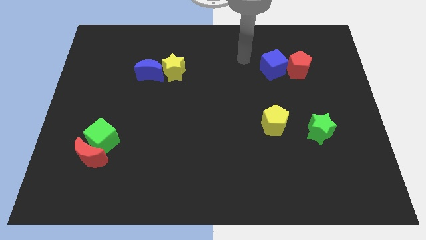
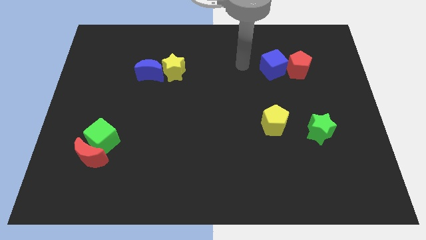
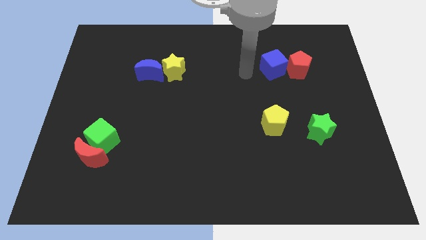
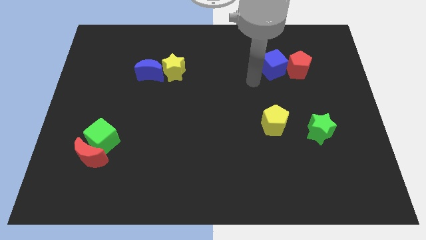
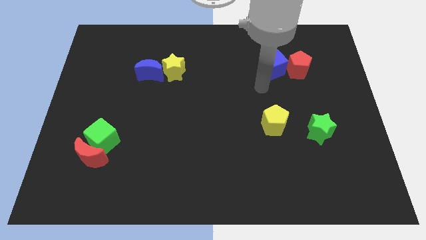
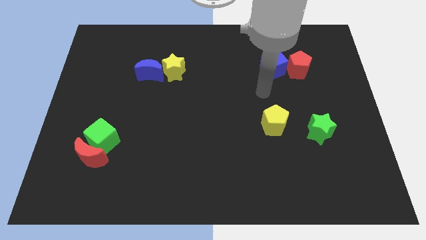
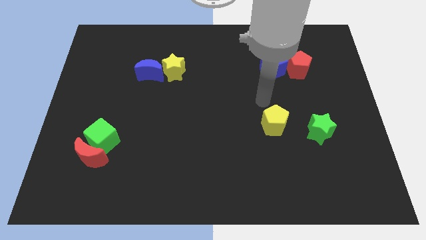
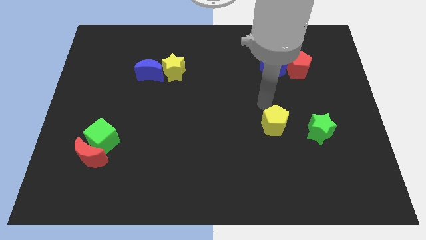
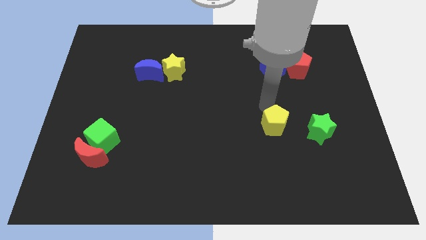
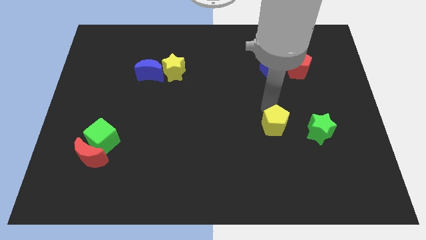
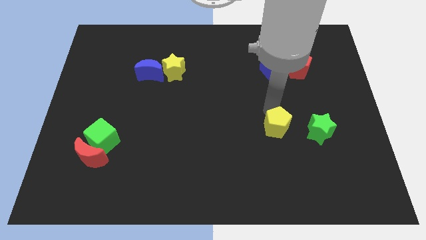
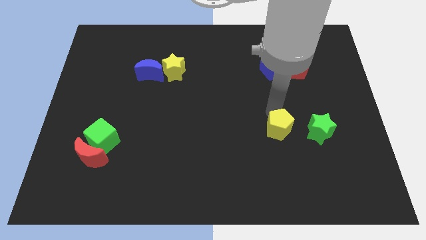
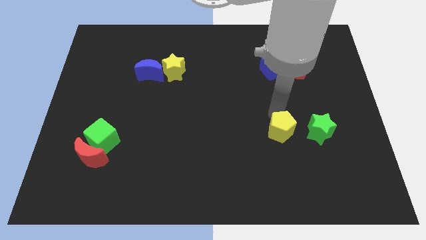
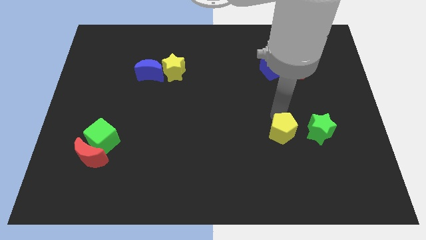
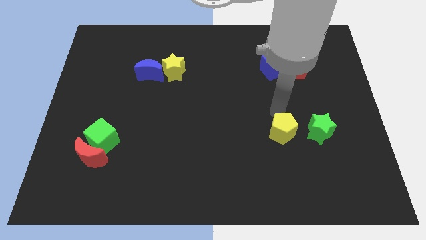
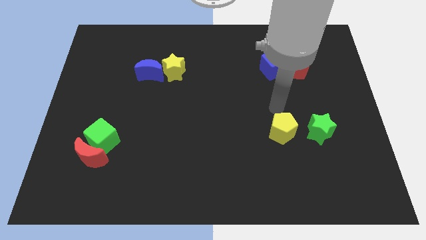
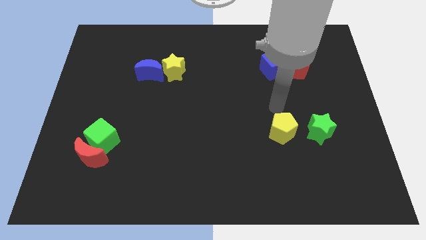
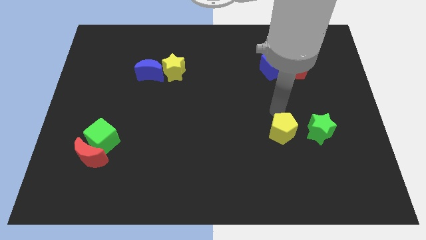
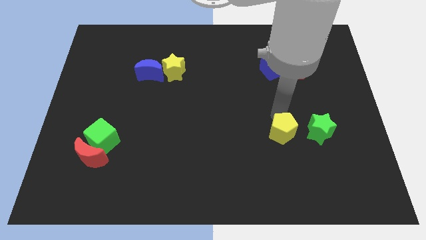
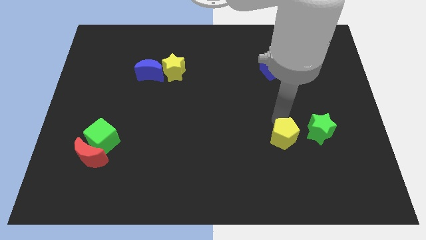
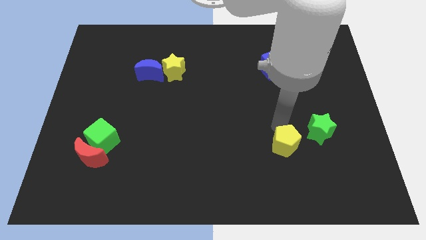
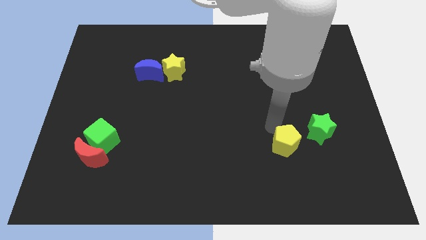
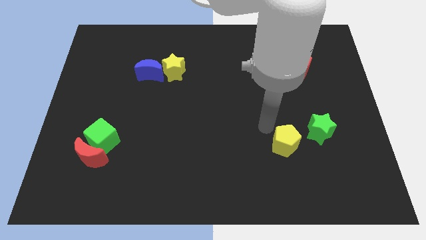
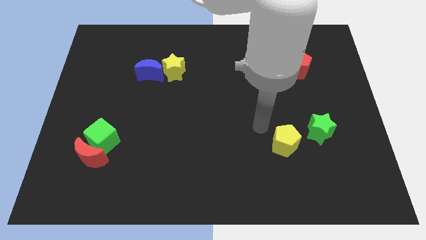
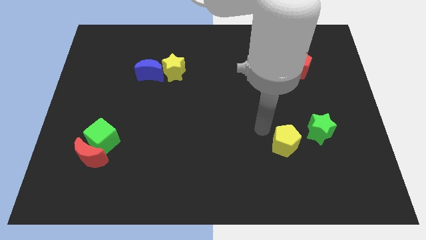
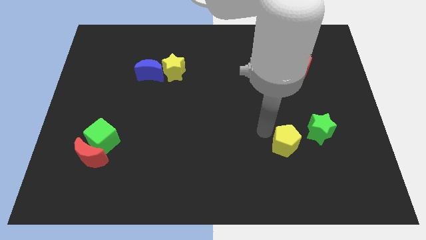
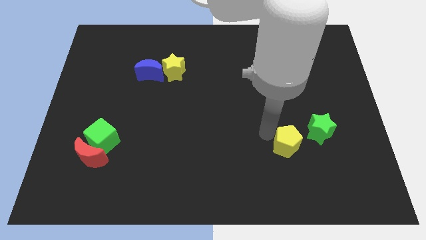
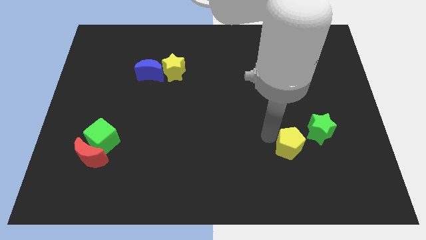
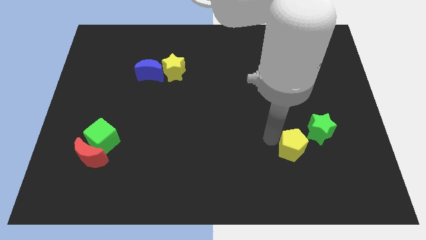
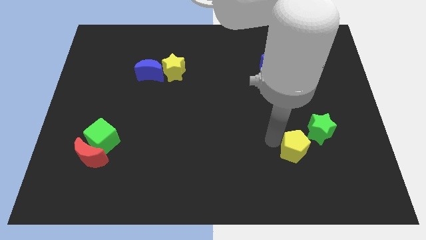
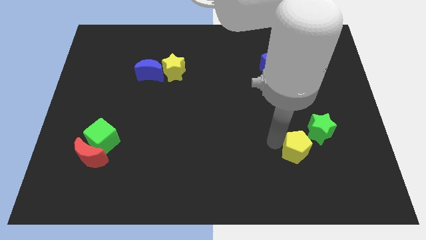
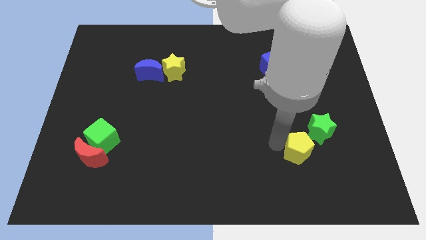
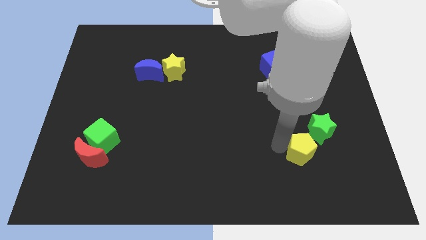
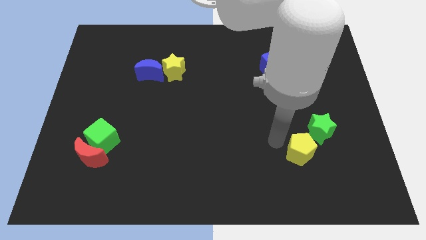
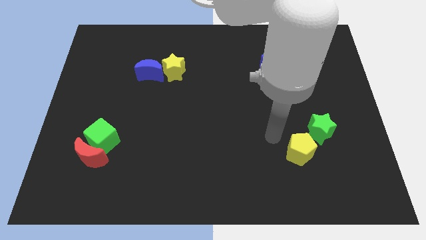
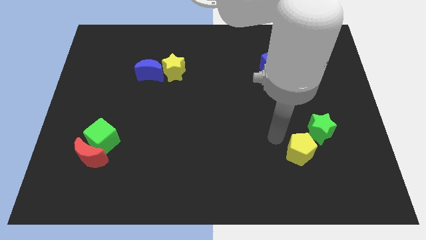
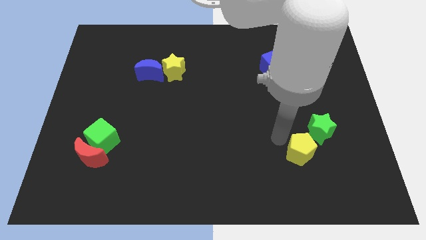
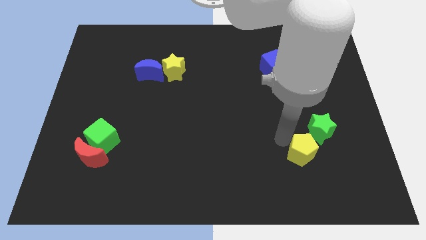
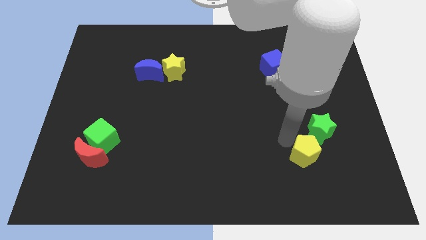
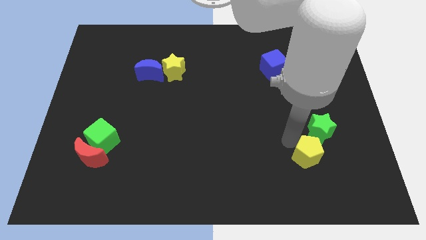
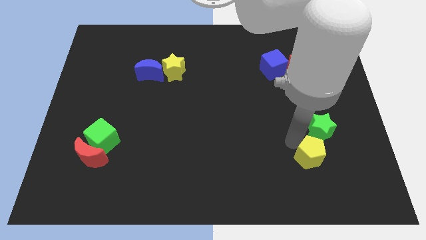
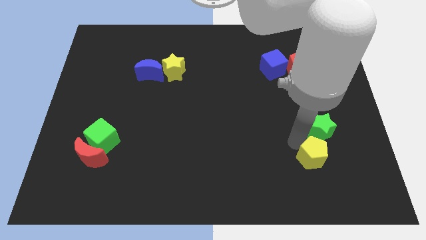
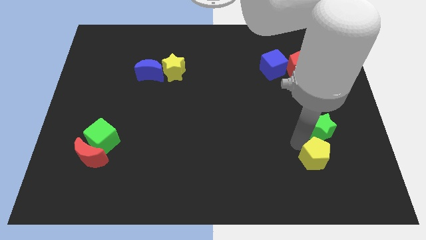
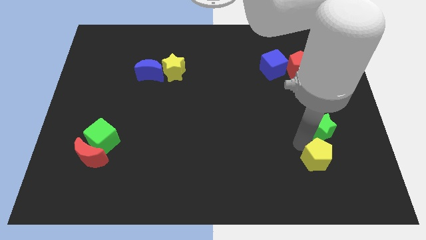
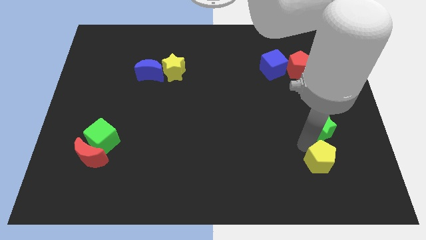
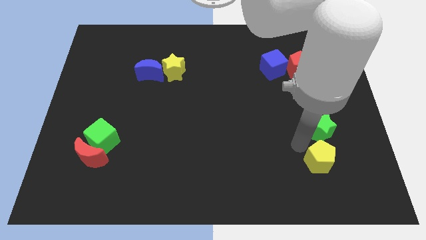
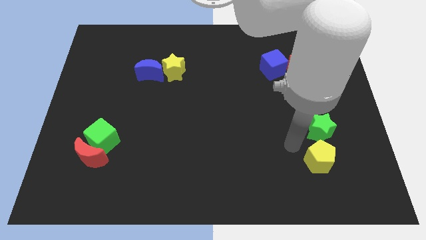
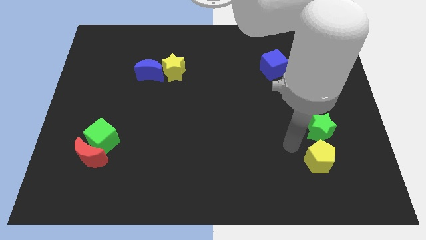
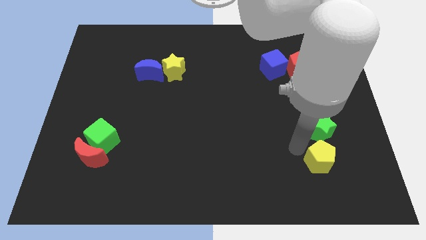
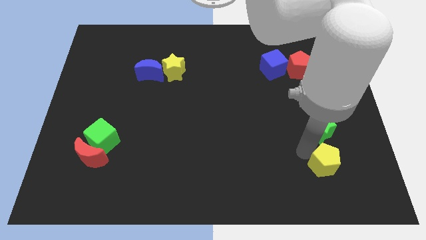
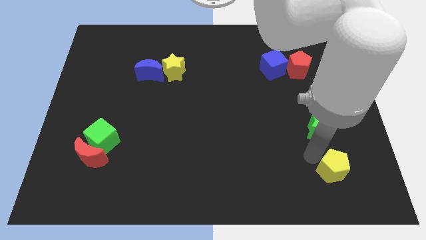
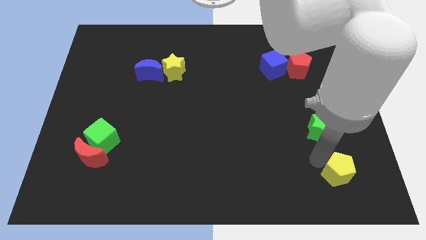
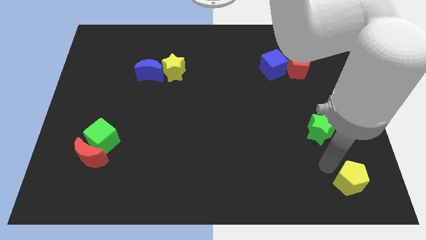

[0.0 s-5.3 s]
push the yellow pentagon to the lower right corner
